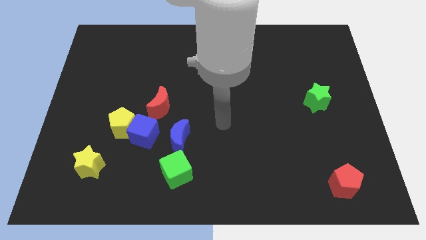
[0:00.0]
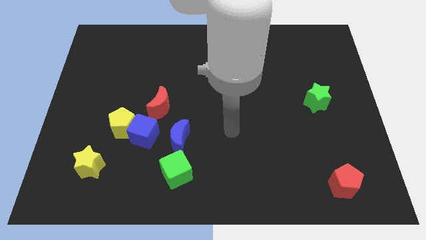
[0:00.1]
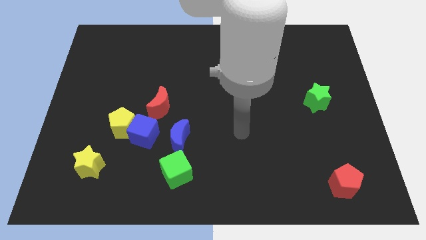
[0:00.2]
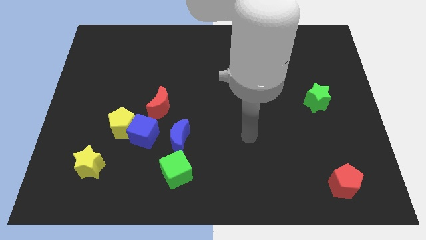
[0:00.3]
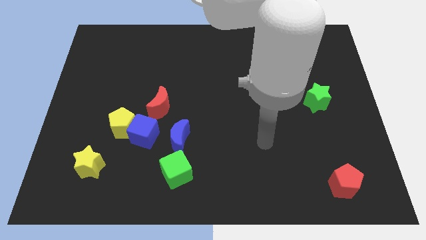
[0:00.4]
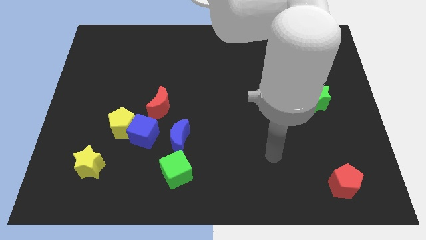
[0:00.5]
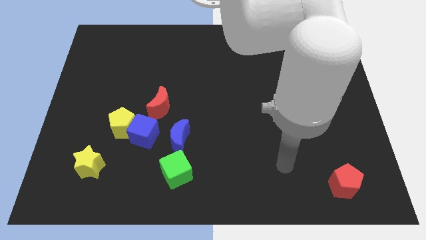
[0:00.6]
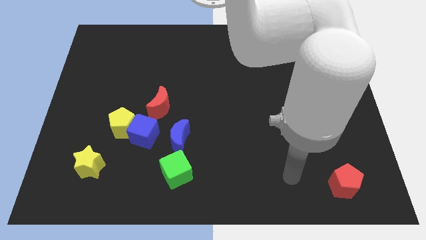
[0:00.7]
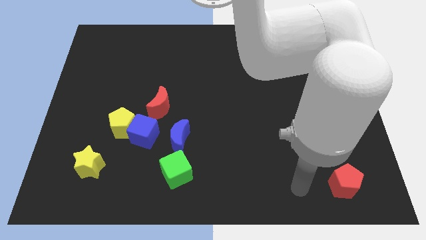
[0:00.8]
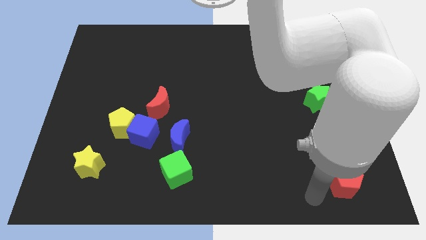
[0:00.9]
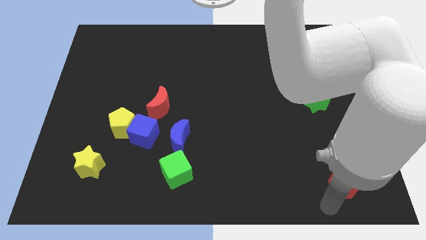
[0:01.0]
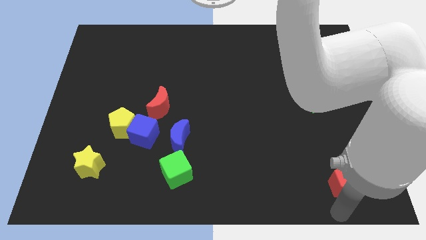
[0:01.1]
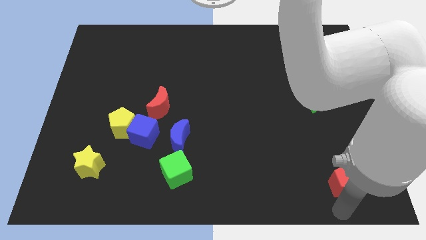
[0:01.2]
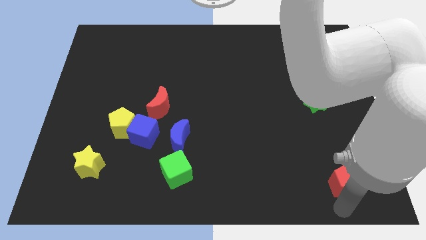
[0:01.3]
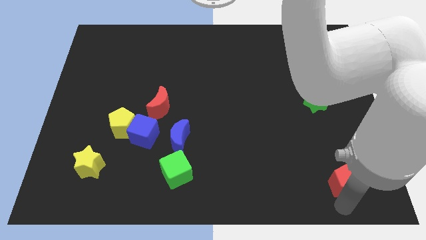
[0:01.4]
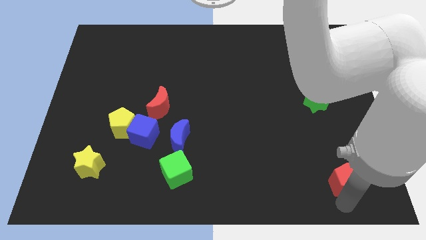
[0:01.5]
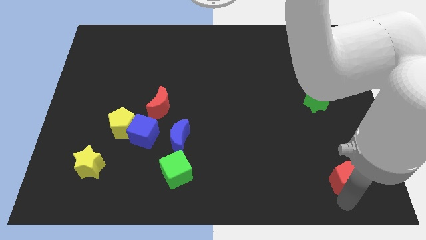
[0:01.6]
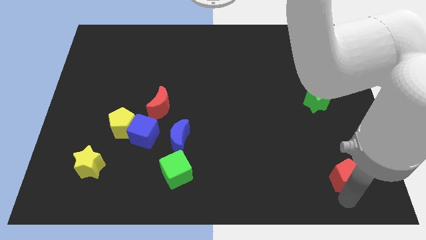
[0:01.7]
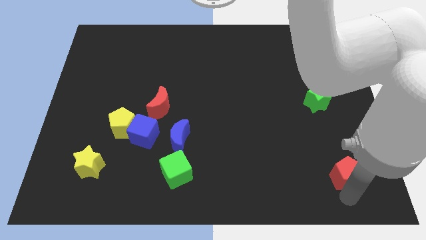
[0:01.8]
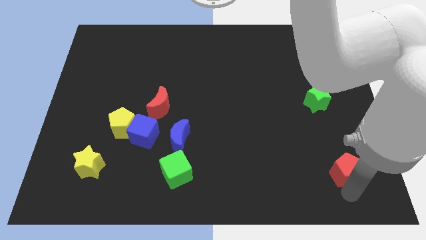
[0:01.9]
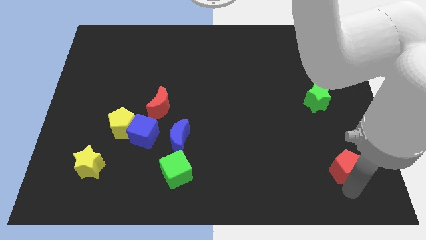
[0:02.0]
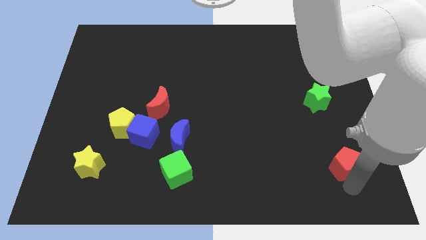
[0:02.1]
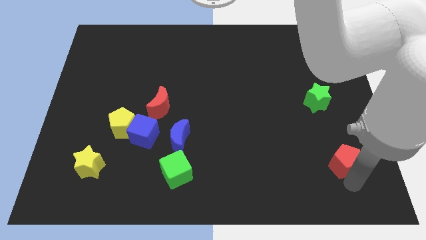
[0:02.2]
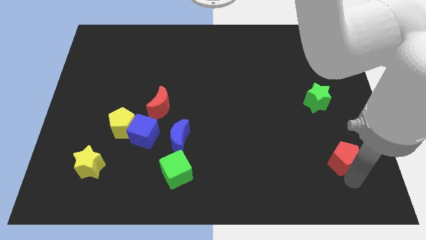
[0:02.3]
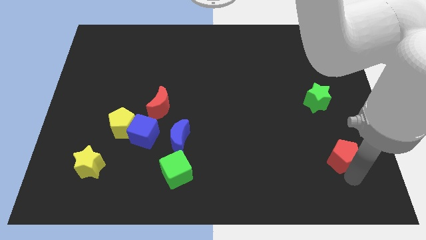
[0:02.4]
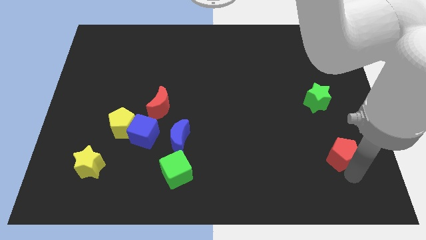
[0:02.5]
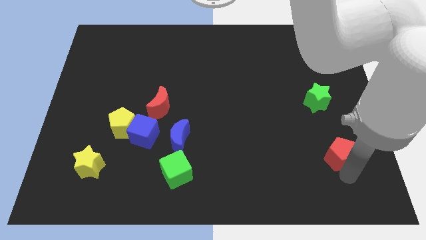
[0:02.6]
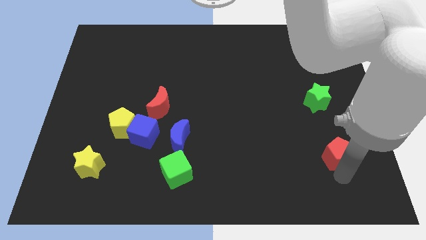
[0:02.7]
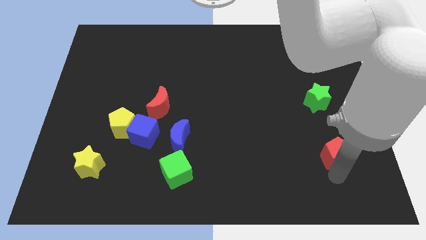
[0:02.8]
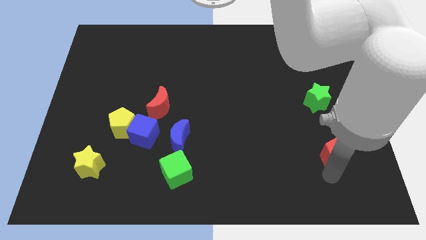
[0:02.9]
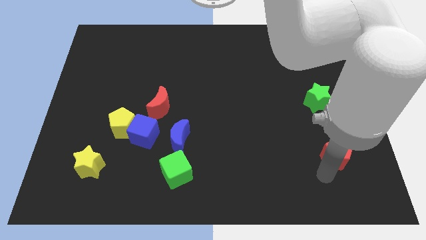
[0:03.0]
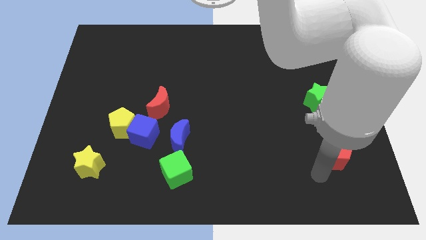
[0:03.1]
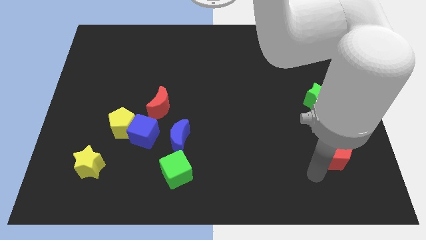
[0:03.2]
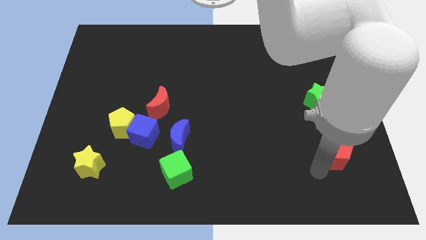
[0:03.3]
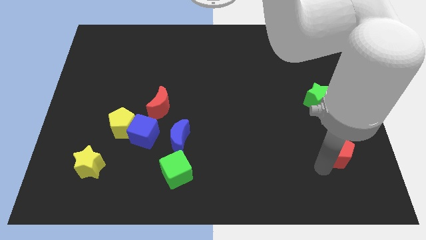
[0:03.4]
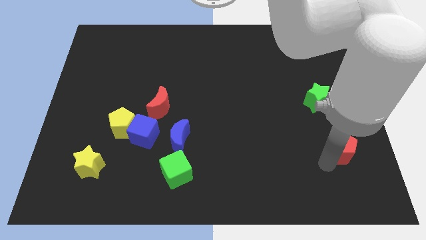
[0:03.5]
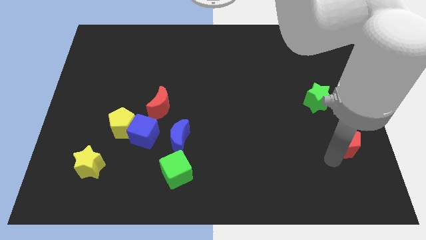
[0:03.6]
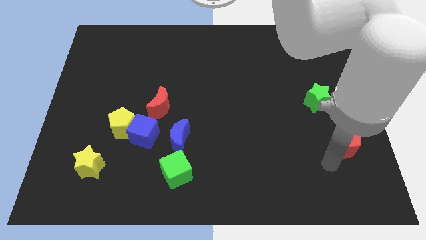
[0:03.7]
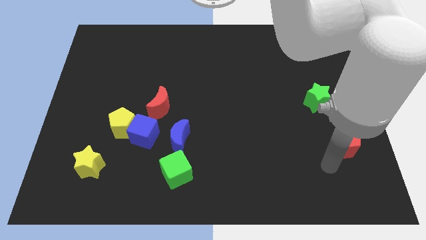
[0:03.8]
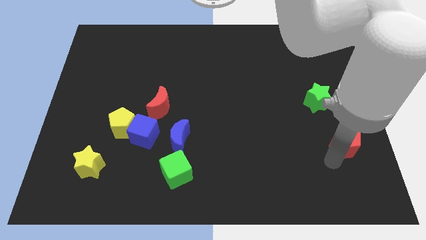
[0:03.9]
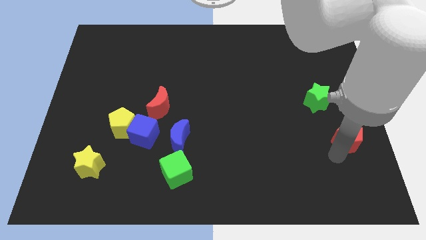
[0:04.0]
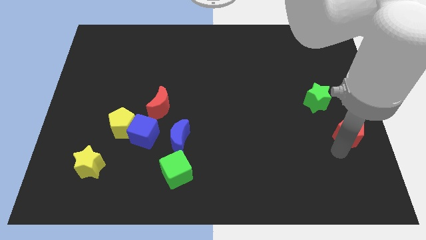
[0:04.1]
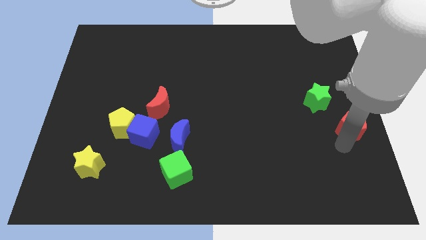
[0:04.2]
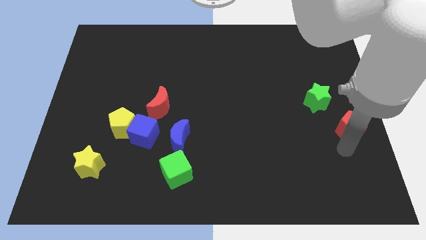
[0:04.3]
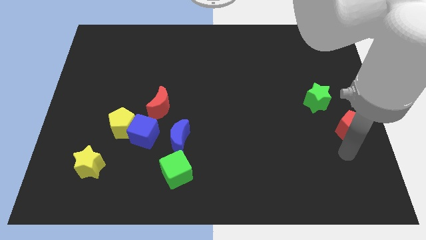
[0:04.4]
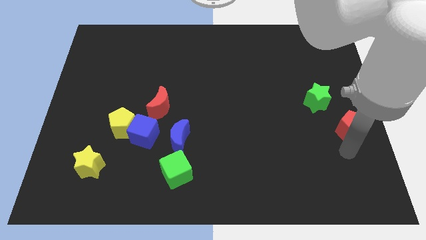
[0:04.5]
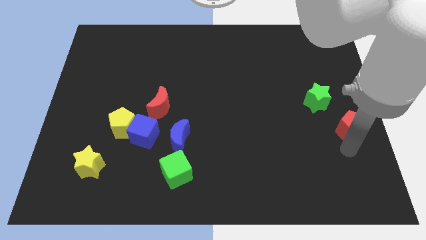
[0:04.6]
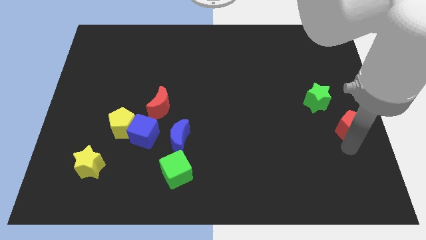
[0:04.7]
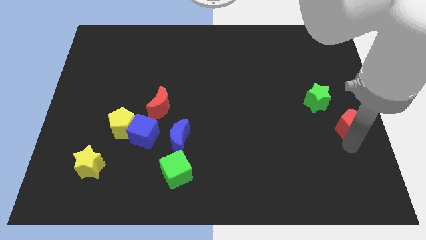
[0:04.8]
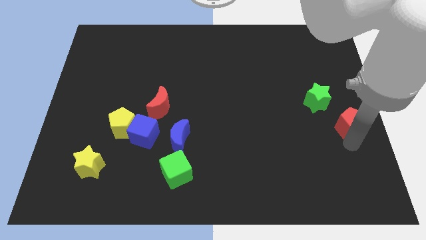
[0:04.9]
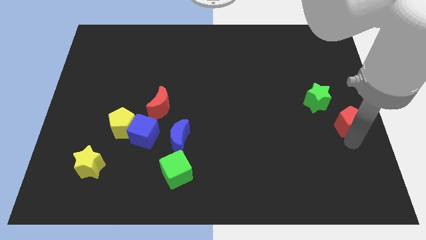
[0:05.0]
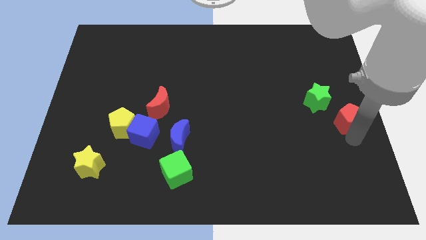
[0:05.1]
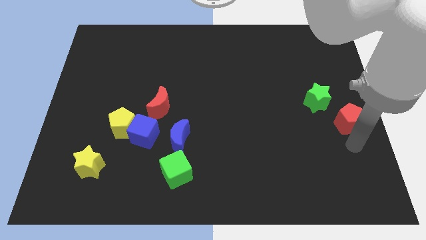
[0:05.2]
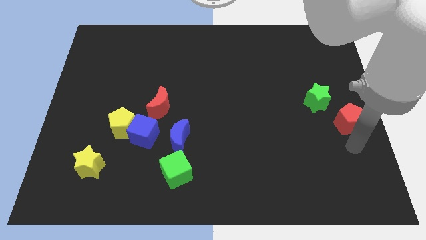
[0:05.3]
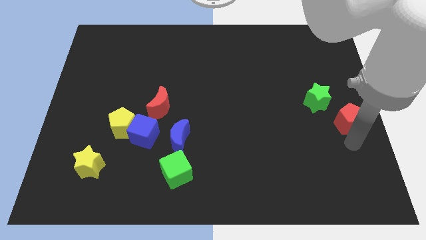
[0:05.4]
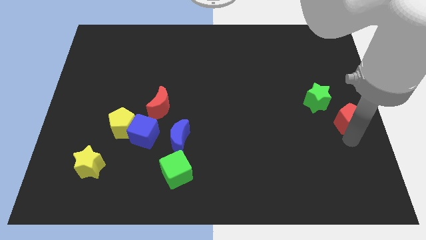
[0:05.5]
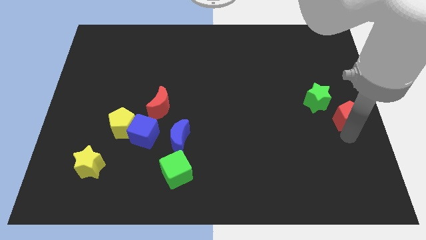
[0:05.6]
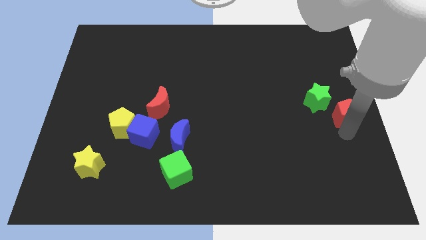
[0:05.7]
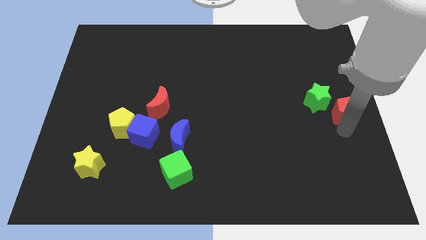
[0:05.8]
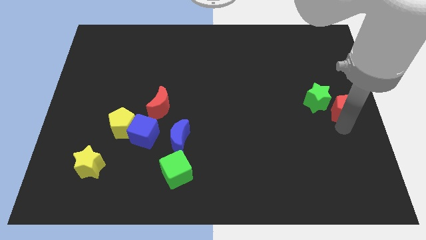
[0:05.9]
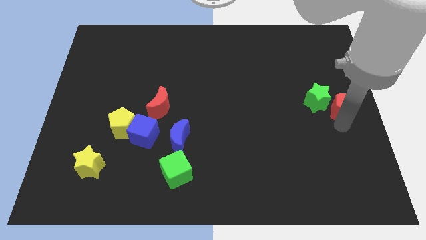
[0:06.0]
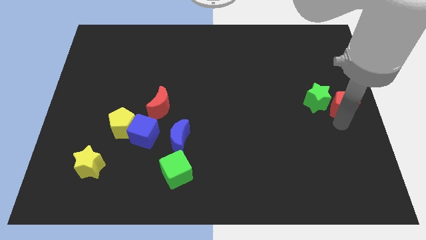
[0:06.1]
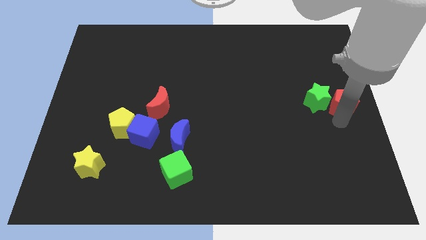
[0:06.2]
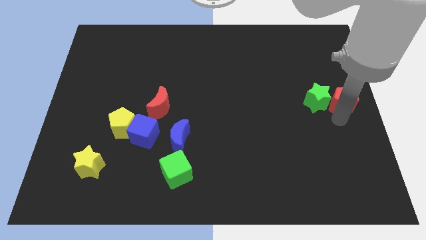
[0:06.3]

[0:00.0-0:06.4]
slide the red pentagon up

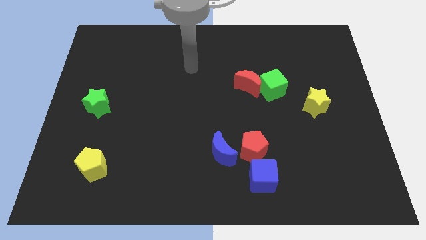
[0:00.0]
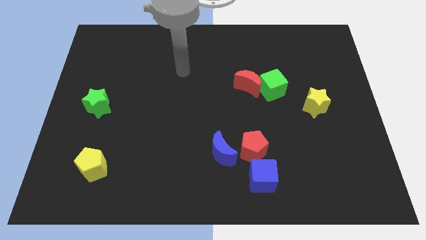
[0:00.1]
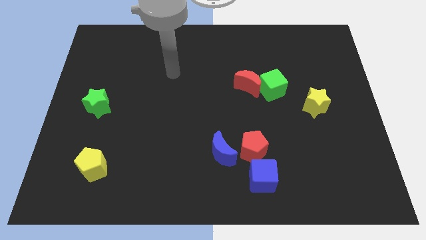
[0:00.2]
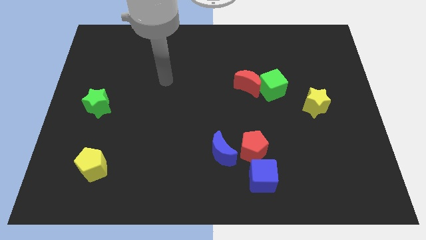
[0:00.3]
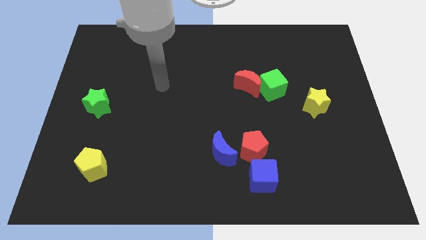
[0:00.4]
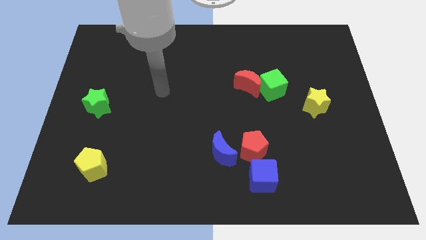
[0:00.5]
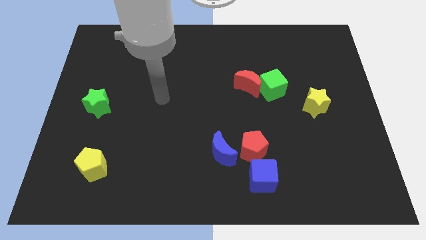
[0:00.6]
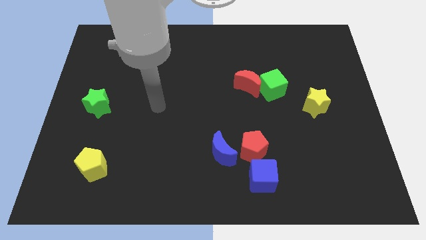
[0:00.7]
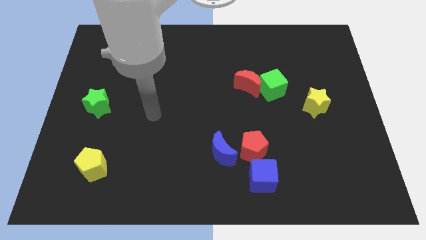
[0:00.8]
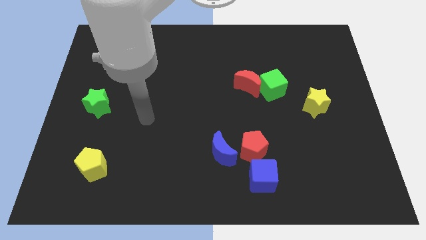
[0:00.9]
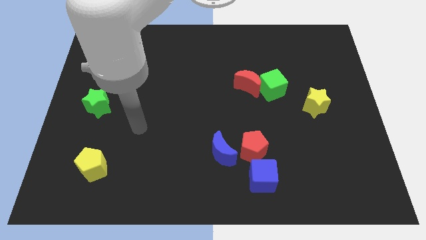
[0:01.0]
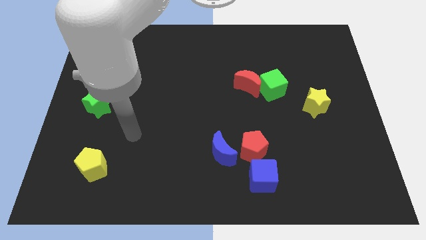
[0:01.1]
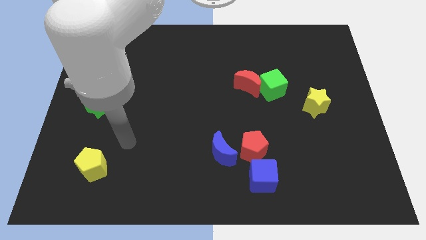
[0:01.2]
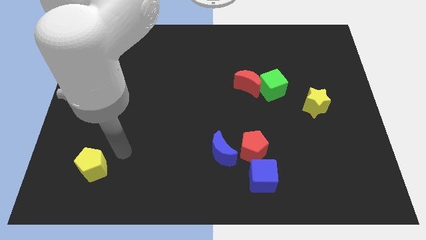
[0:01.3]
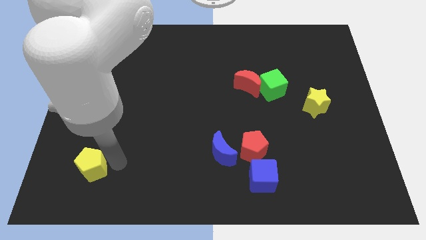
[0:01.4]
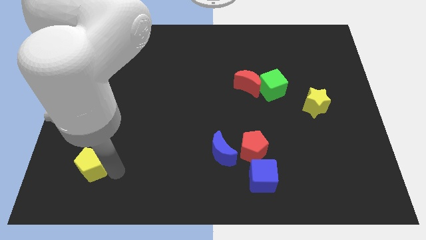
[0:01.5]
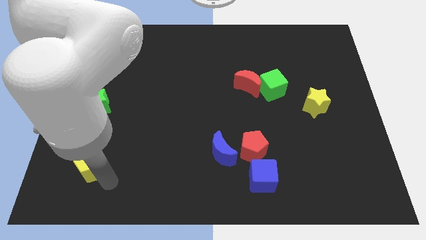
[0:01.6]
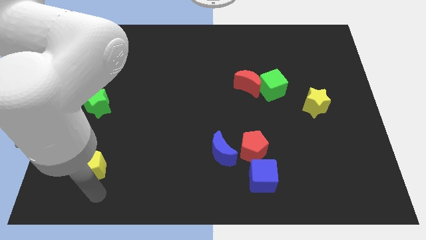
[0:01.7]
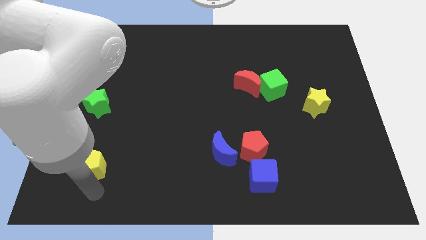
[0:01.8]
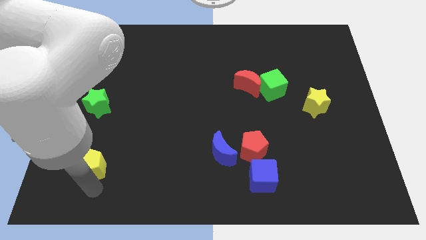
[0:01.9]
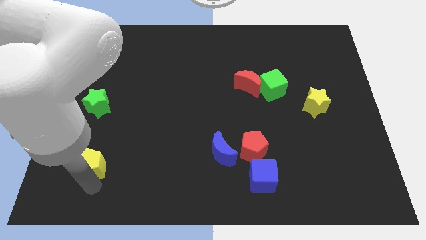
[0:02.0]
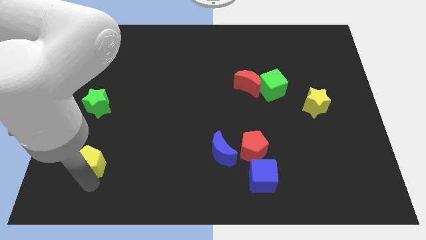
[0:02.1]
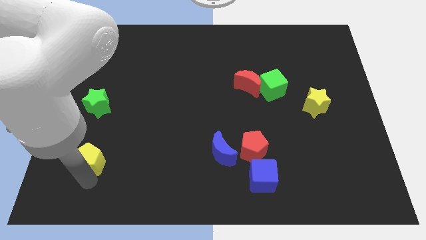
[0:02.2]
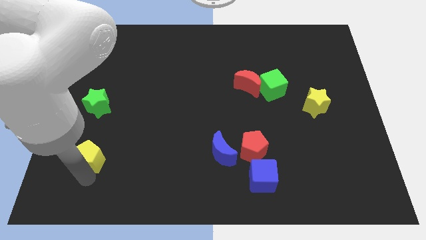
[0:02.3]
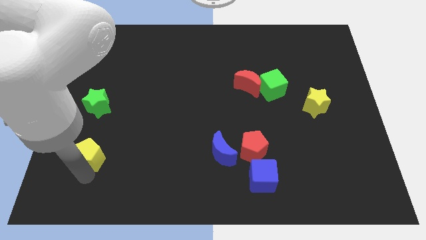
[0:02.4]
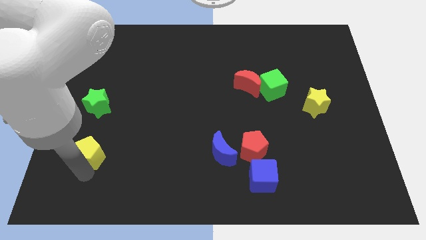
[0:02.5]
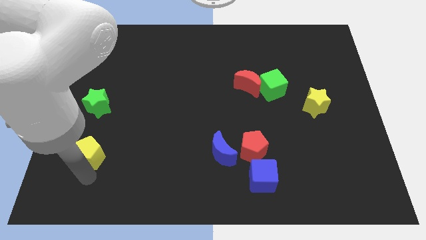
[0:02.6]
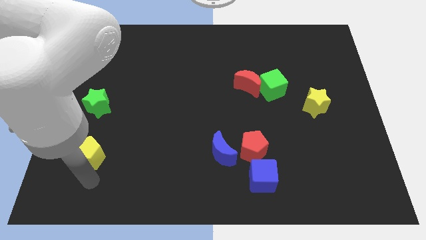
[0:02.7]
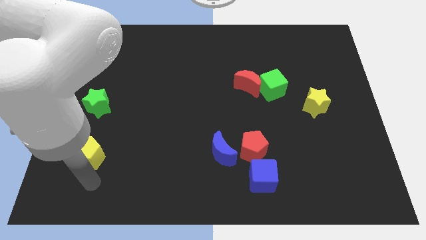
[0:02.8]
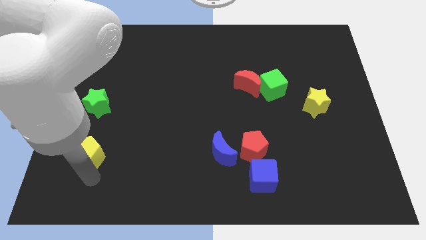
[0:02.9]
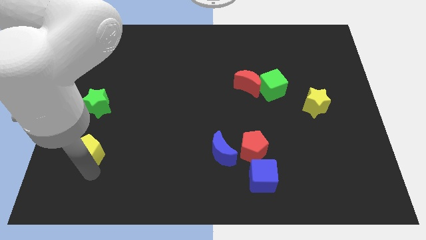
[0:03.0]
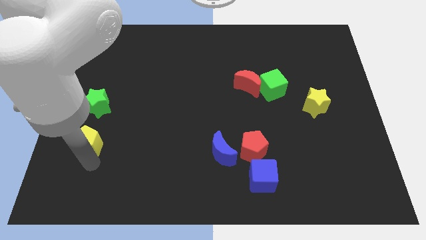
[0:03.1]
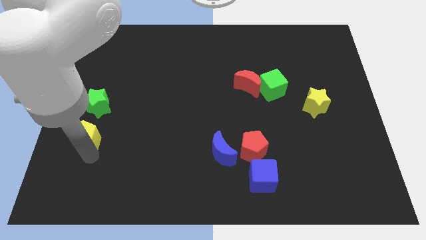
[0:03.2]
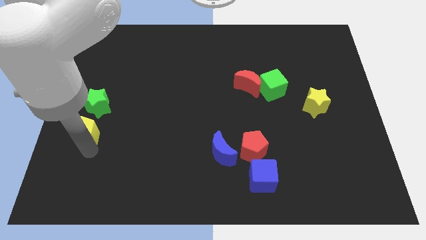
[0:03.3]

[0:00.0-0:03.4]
move the yellow pentagon a bit up
